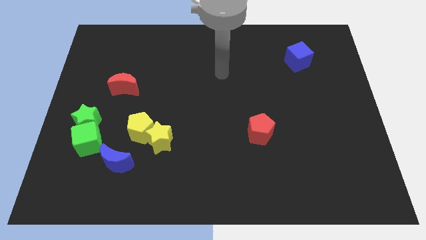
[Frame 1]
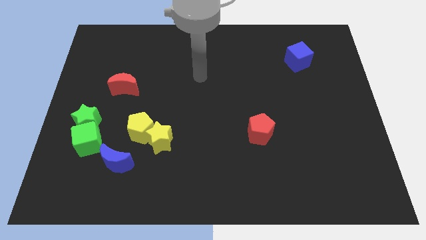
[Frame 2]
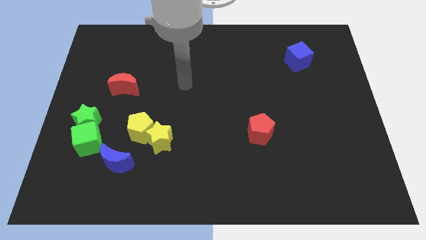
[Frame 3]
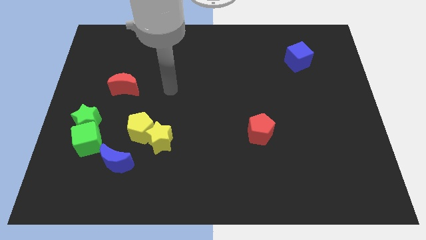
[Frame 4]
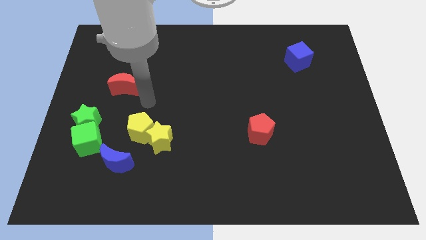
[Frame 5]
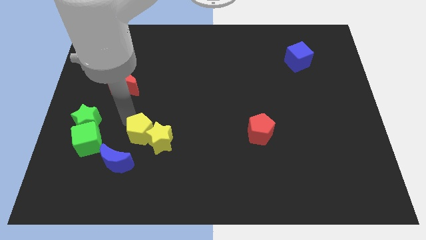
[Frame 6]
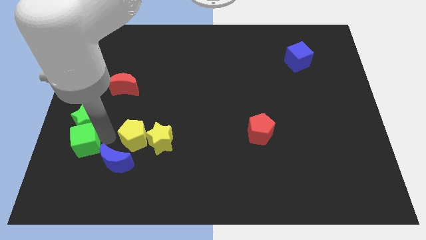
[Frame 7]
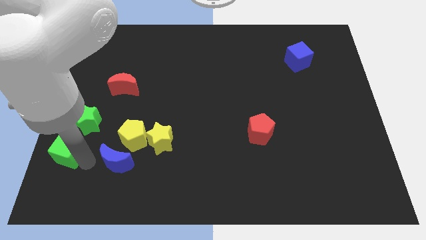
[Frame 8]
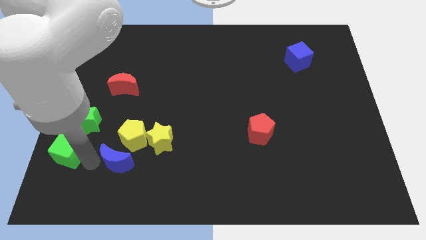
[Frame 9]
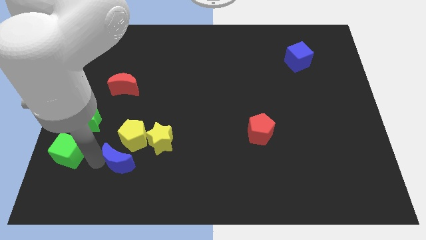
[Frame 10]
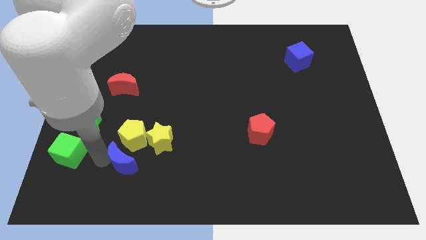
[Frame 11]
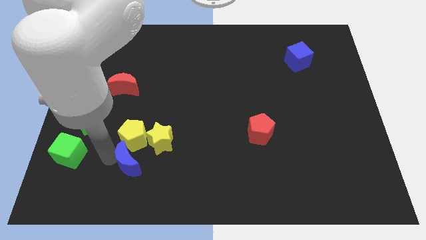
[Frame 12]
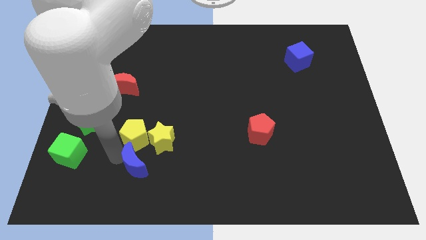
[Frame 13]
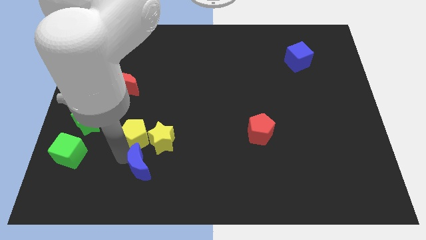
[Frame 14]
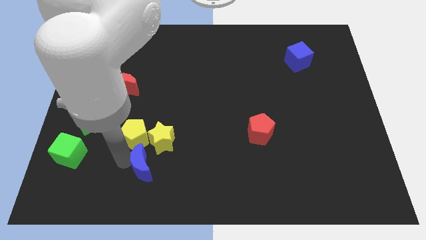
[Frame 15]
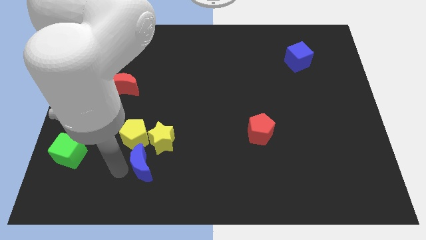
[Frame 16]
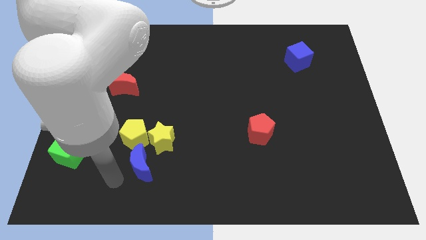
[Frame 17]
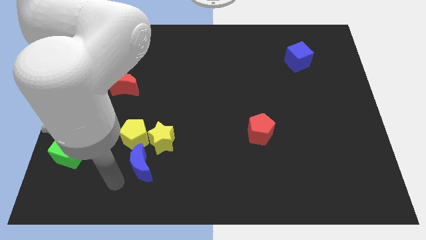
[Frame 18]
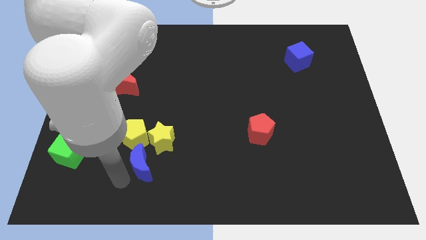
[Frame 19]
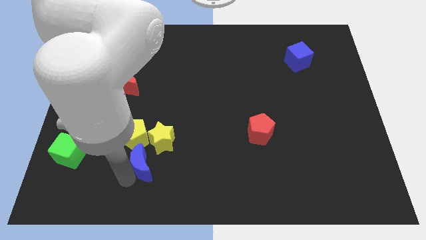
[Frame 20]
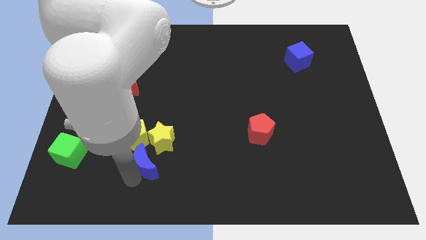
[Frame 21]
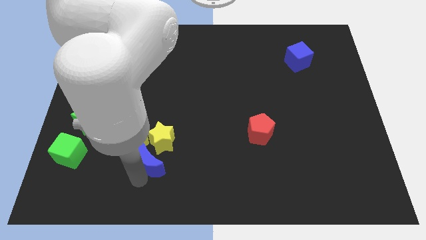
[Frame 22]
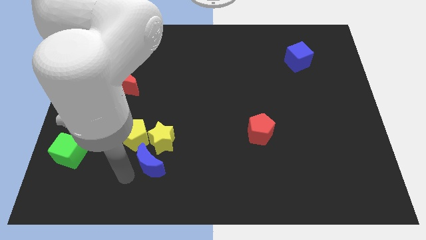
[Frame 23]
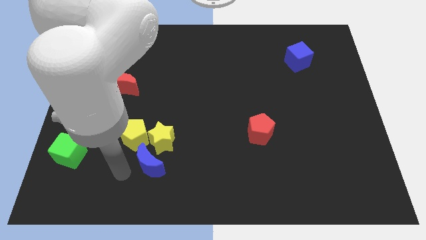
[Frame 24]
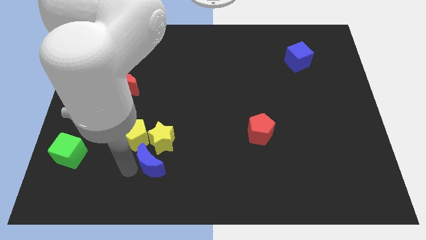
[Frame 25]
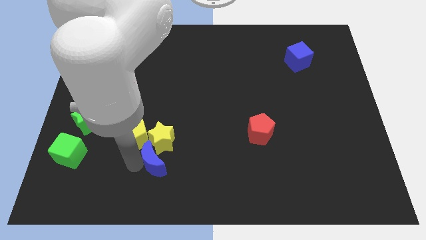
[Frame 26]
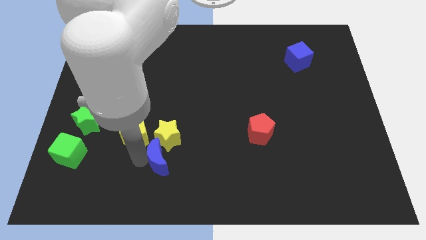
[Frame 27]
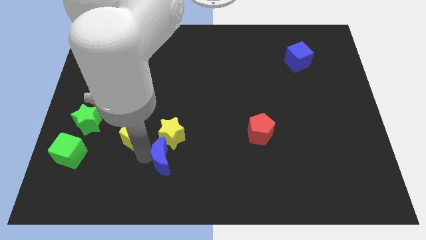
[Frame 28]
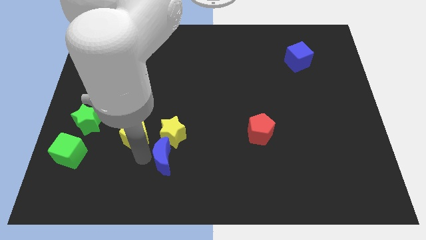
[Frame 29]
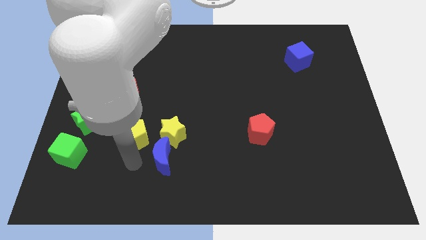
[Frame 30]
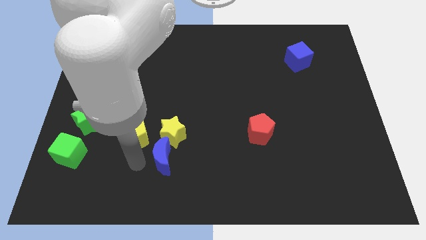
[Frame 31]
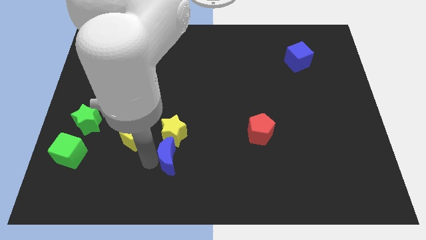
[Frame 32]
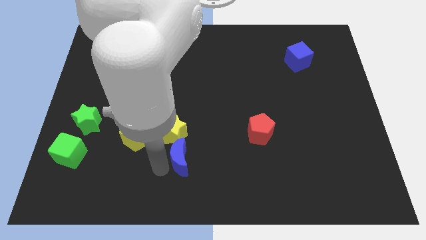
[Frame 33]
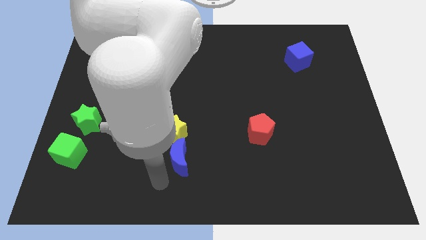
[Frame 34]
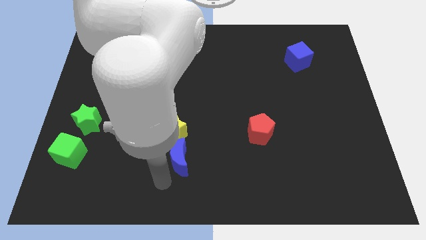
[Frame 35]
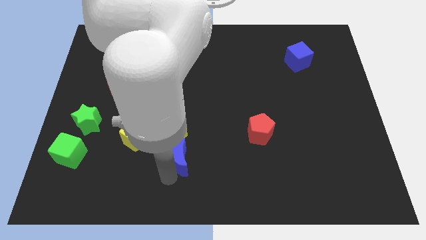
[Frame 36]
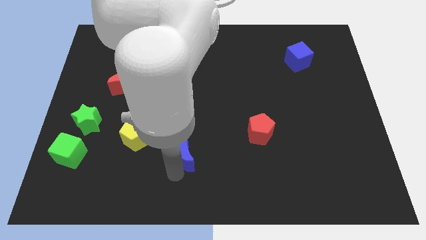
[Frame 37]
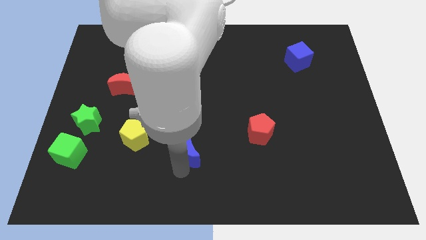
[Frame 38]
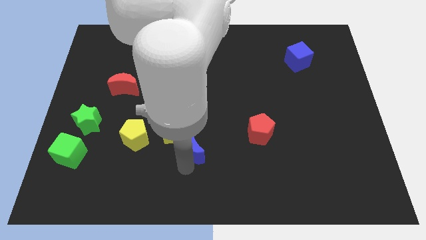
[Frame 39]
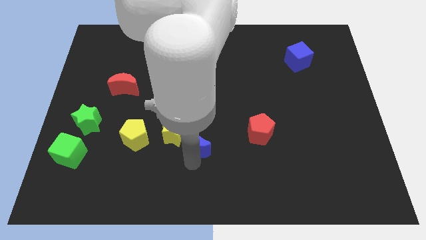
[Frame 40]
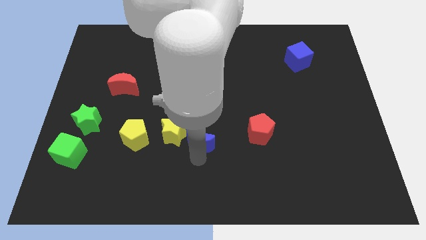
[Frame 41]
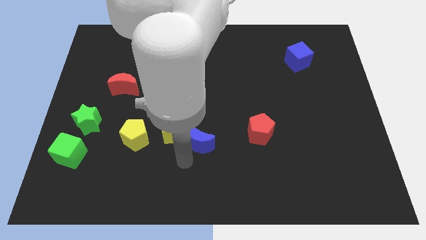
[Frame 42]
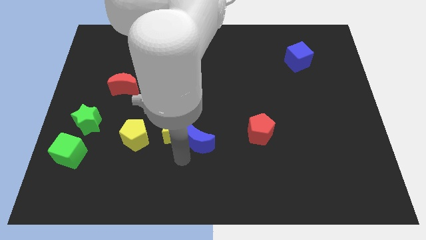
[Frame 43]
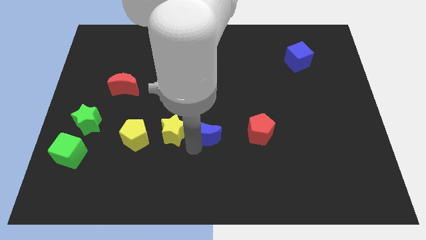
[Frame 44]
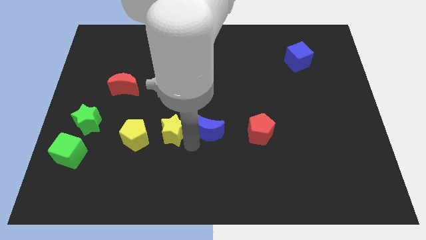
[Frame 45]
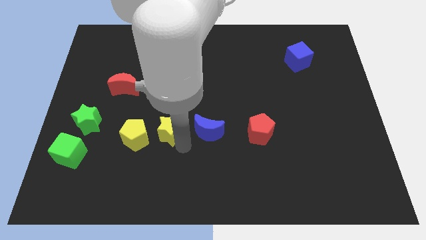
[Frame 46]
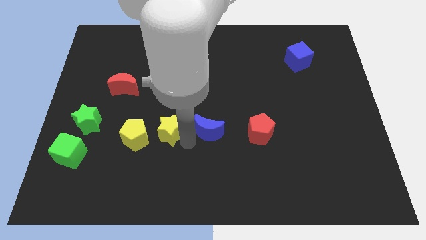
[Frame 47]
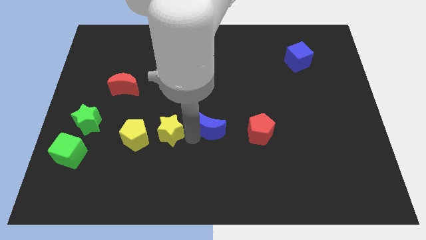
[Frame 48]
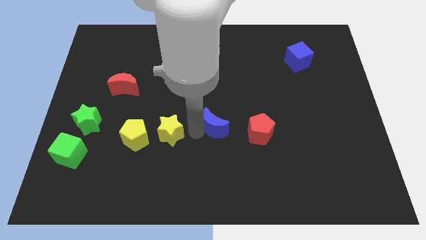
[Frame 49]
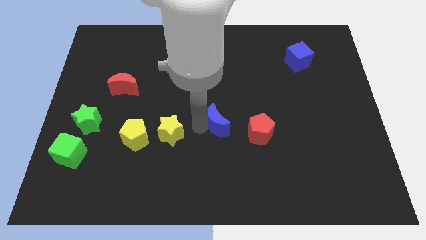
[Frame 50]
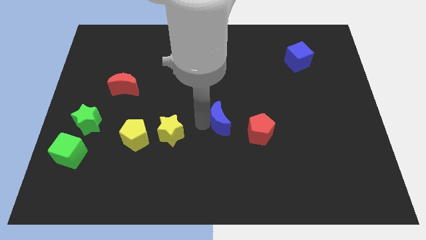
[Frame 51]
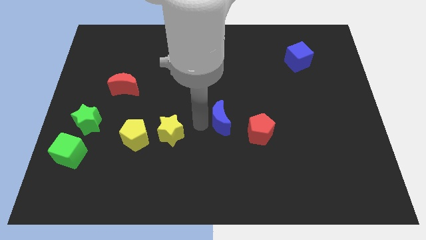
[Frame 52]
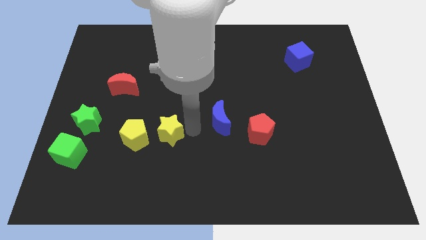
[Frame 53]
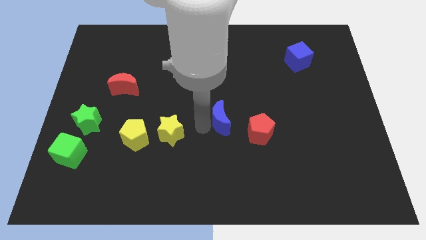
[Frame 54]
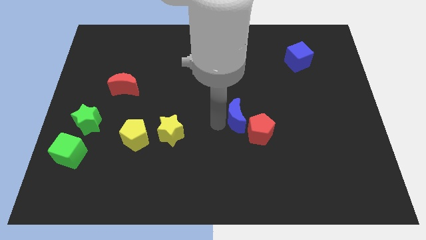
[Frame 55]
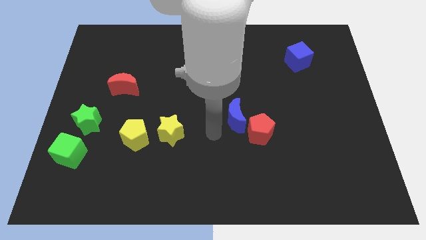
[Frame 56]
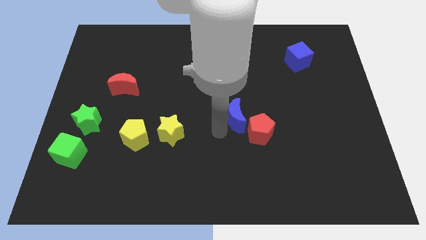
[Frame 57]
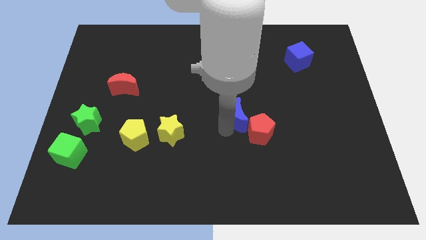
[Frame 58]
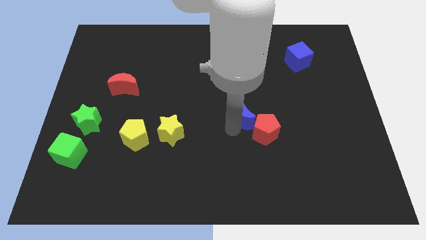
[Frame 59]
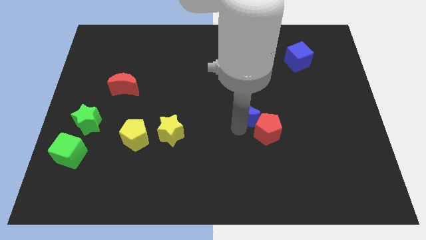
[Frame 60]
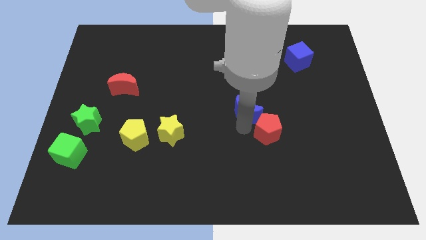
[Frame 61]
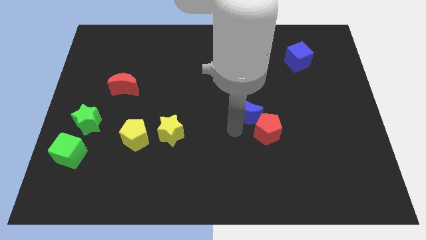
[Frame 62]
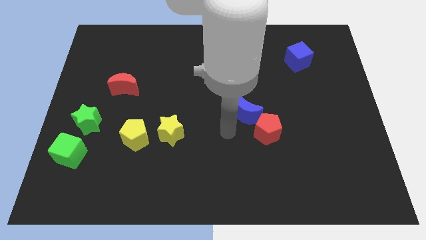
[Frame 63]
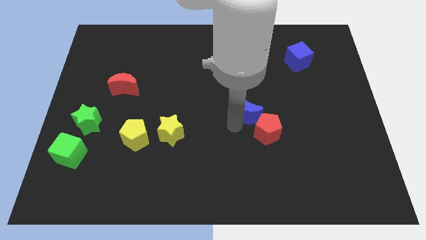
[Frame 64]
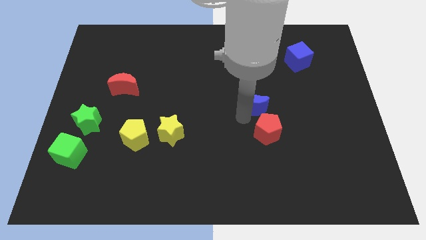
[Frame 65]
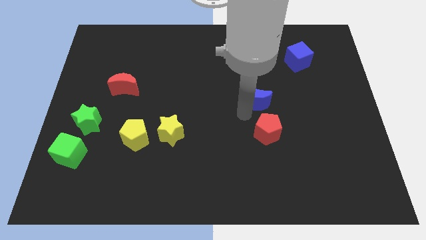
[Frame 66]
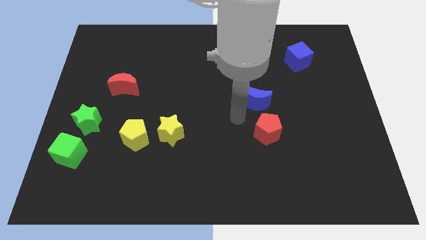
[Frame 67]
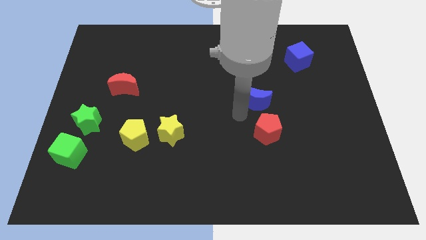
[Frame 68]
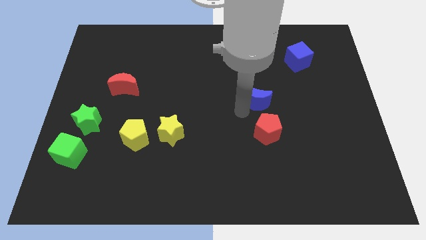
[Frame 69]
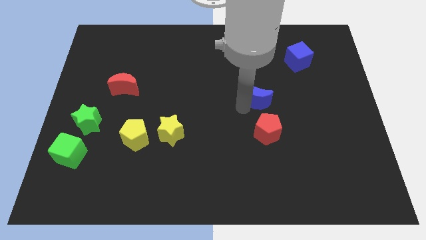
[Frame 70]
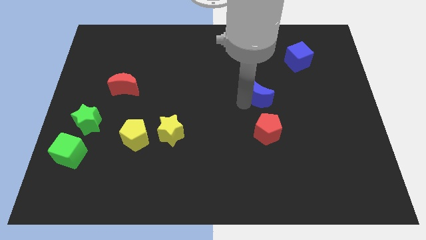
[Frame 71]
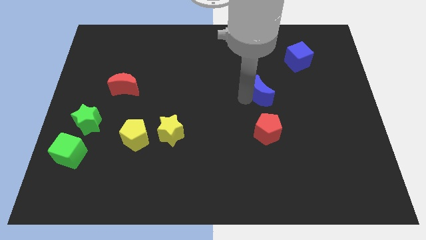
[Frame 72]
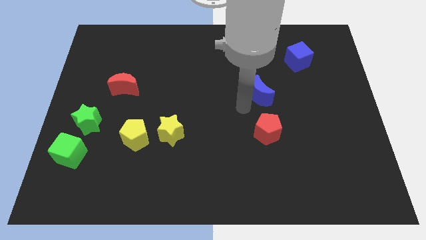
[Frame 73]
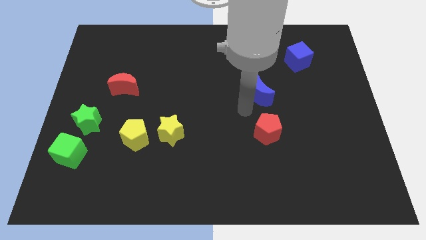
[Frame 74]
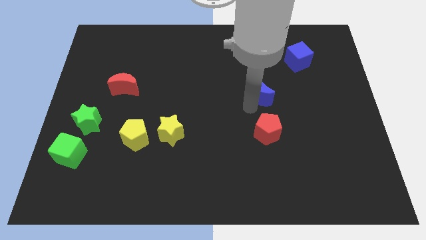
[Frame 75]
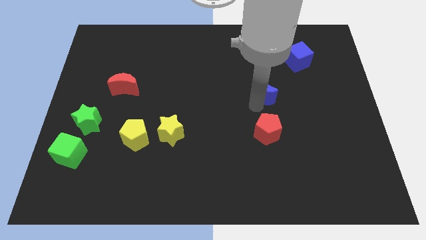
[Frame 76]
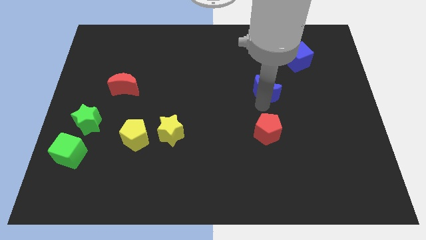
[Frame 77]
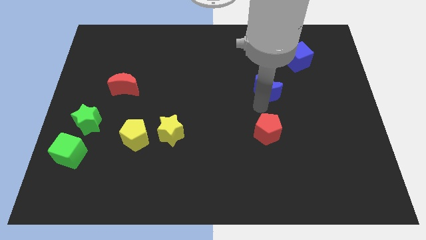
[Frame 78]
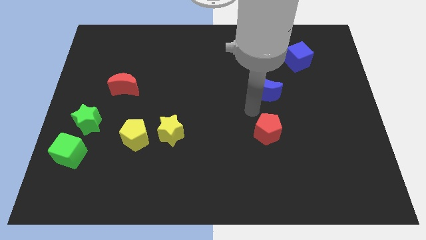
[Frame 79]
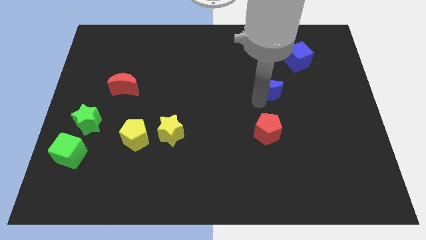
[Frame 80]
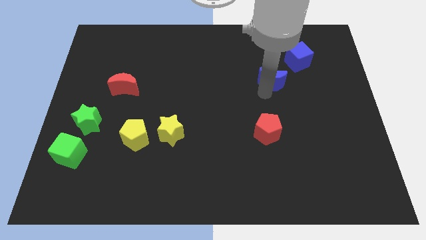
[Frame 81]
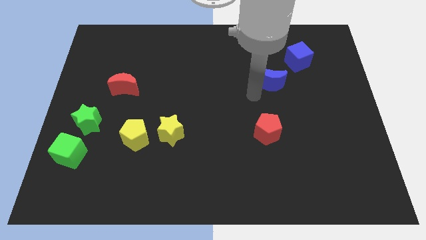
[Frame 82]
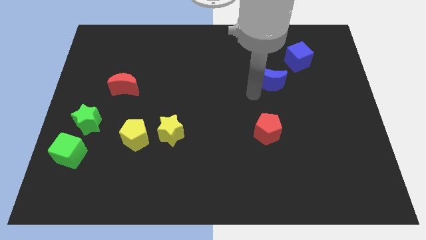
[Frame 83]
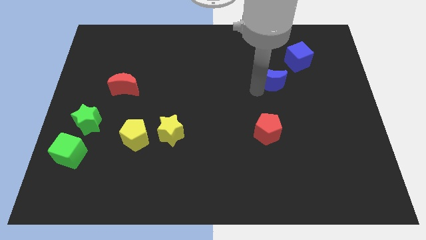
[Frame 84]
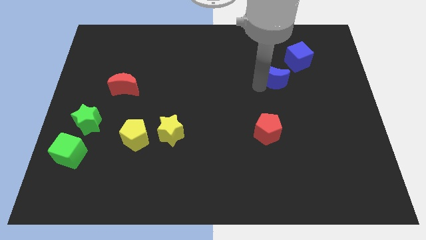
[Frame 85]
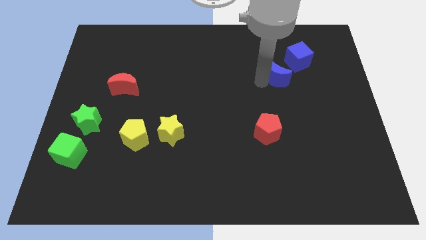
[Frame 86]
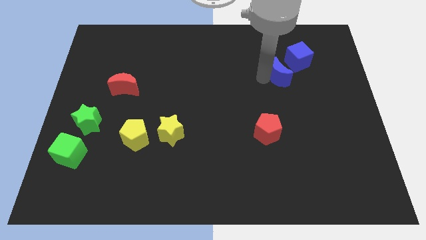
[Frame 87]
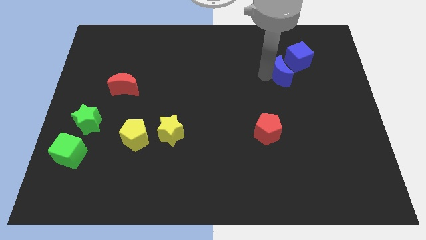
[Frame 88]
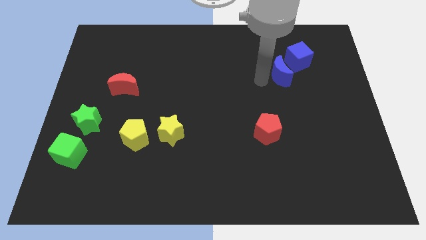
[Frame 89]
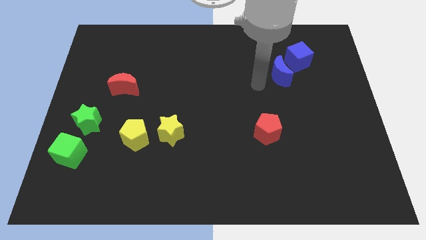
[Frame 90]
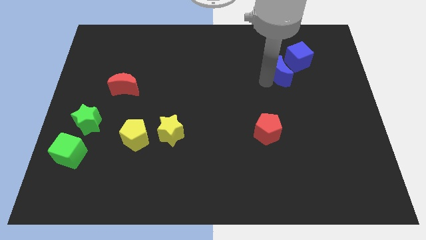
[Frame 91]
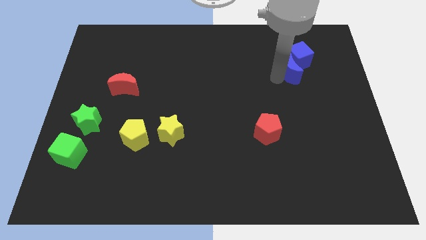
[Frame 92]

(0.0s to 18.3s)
push the blue moon towards the blue cube
